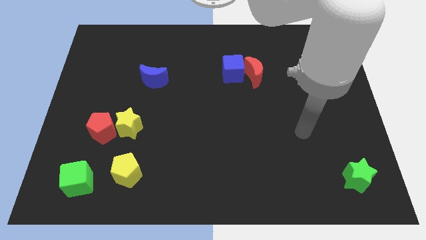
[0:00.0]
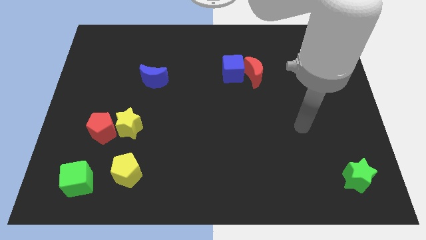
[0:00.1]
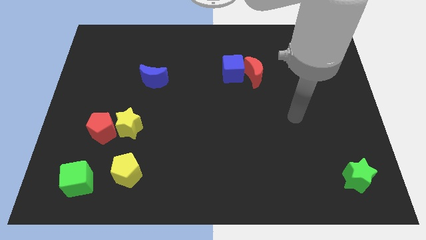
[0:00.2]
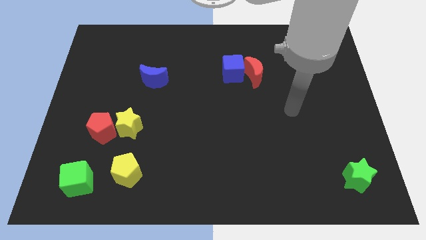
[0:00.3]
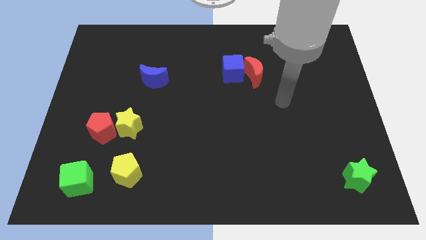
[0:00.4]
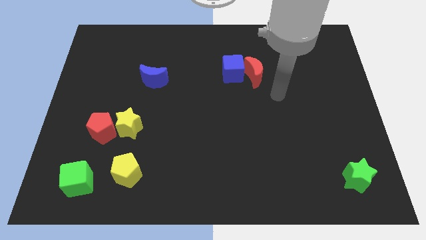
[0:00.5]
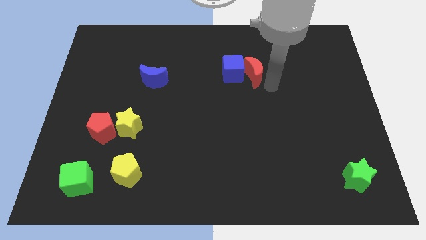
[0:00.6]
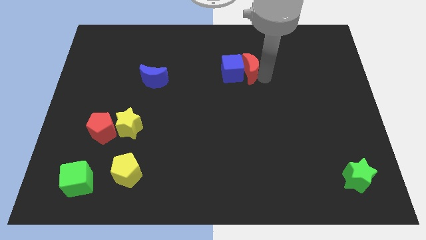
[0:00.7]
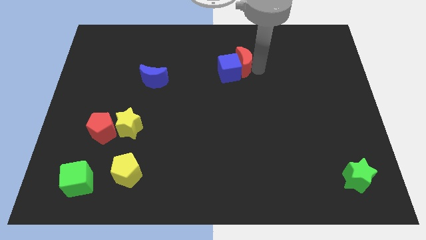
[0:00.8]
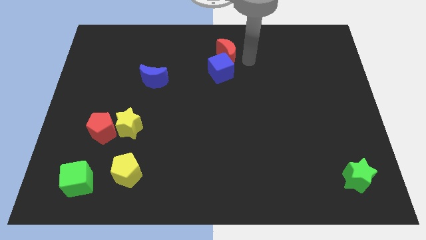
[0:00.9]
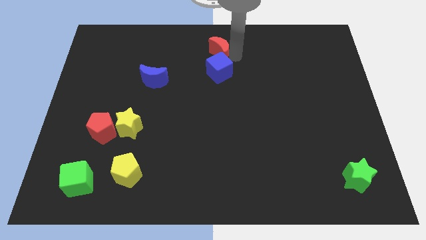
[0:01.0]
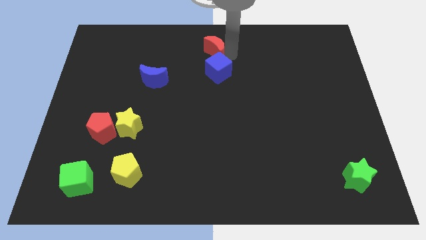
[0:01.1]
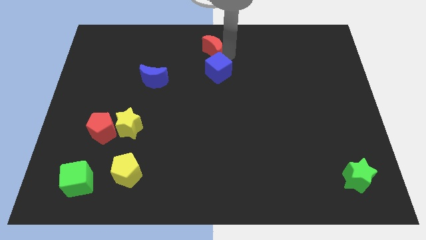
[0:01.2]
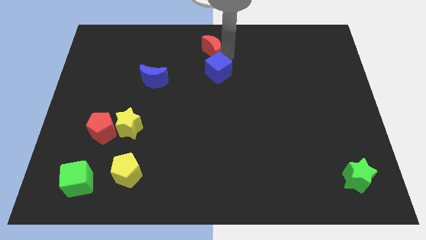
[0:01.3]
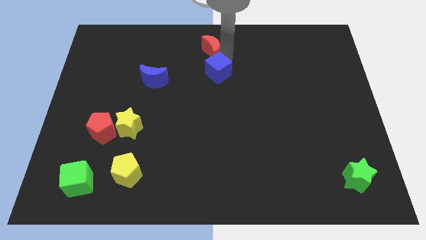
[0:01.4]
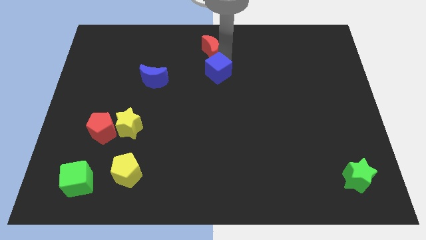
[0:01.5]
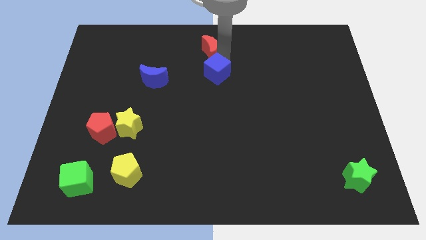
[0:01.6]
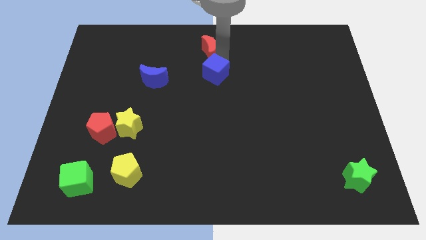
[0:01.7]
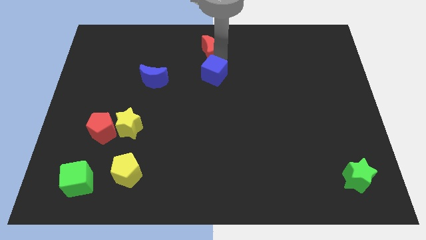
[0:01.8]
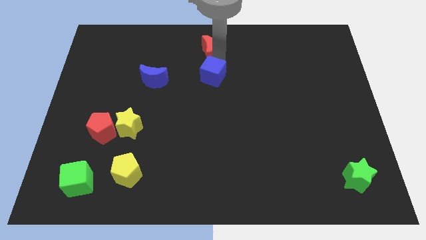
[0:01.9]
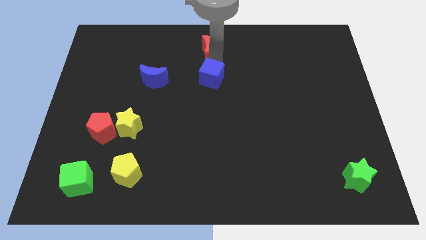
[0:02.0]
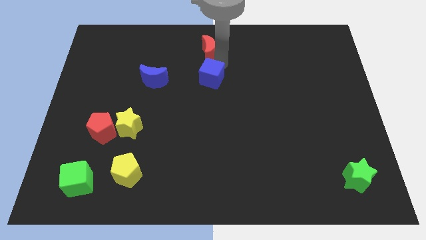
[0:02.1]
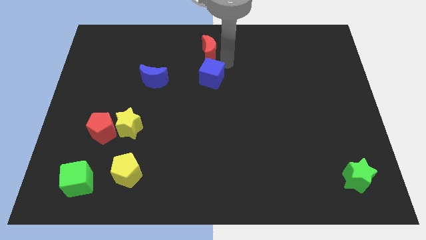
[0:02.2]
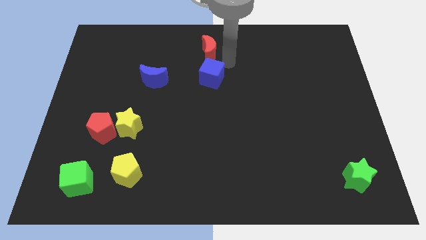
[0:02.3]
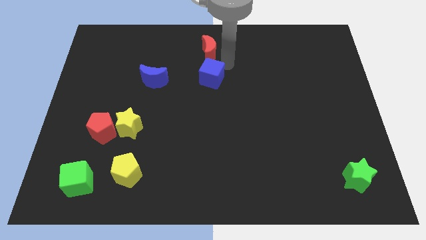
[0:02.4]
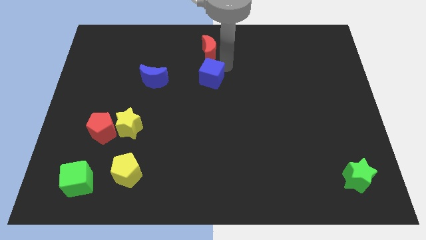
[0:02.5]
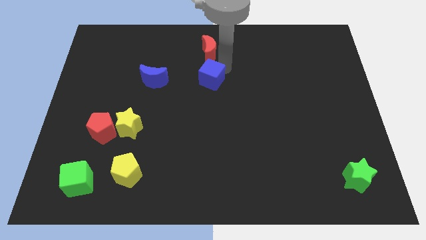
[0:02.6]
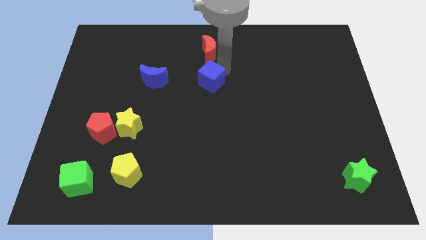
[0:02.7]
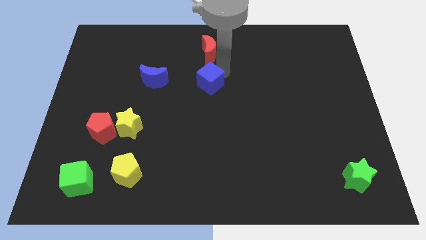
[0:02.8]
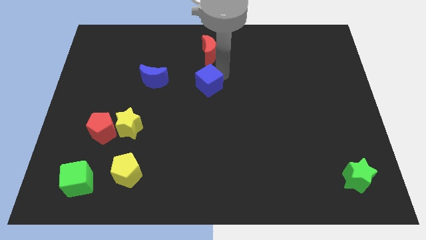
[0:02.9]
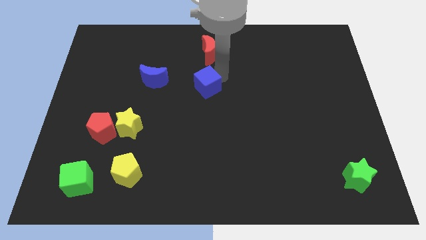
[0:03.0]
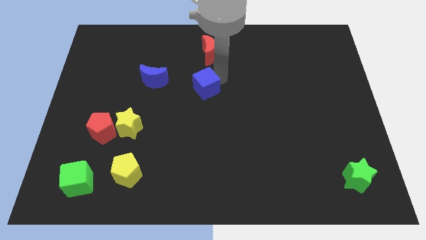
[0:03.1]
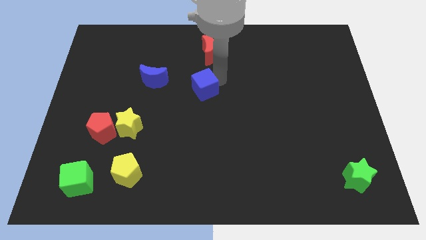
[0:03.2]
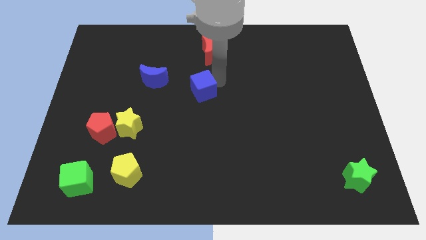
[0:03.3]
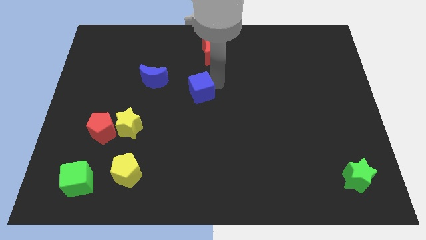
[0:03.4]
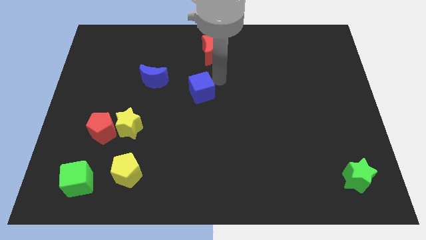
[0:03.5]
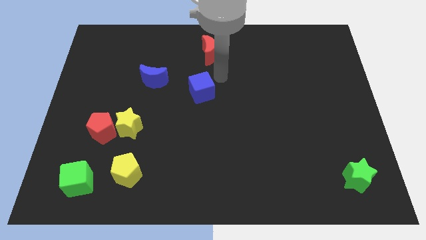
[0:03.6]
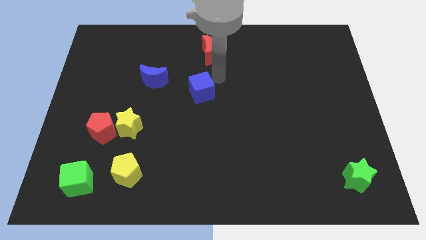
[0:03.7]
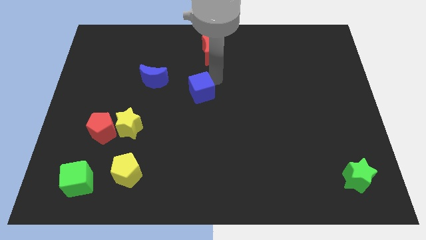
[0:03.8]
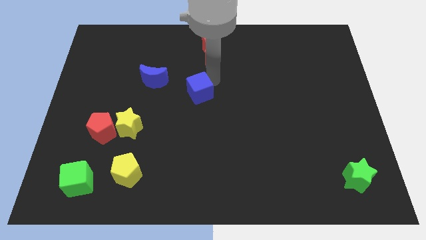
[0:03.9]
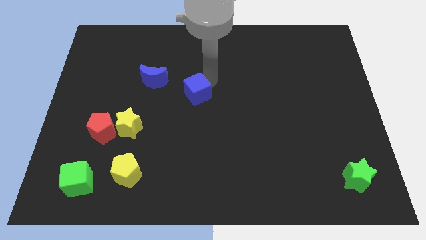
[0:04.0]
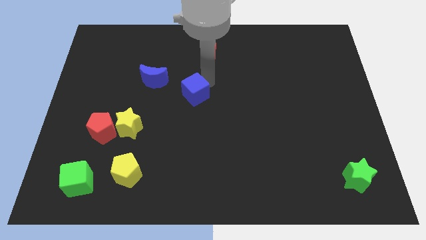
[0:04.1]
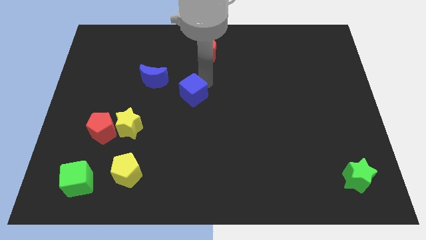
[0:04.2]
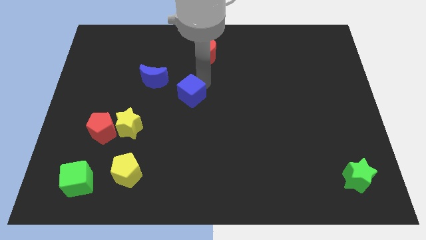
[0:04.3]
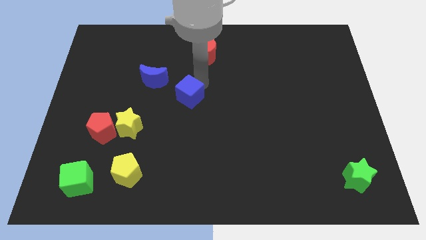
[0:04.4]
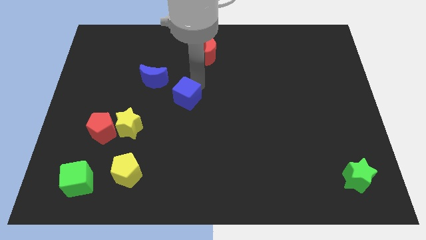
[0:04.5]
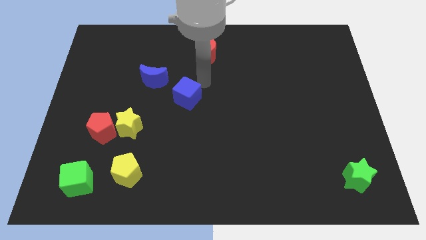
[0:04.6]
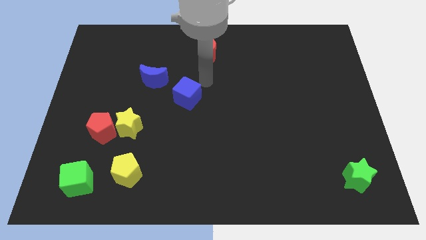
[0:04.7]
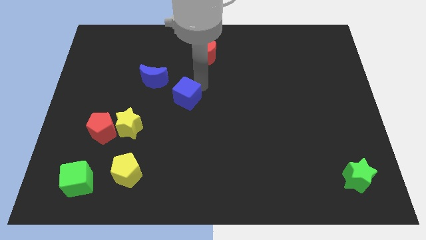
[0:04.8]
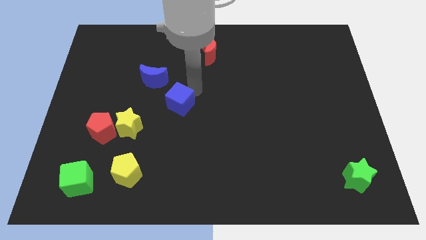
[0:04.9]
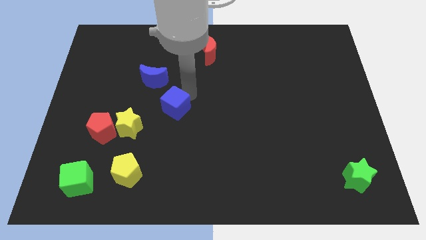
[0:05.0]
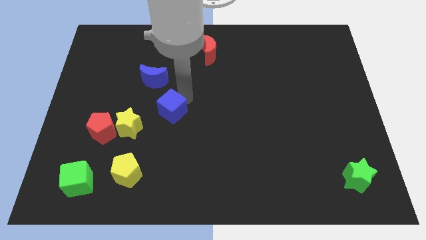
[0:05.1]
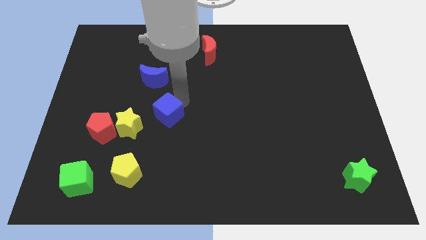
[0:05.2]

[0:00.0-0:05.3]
slide the blue cube downwards and left diagonally

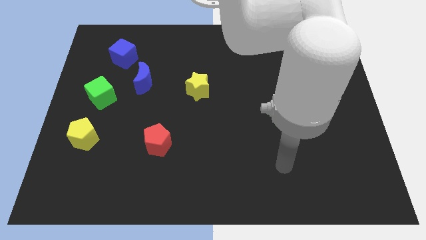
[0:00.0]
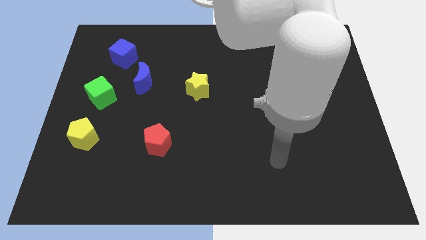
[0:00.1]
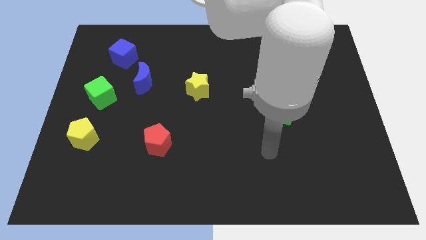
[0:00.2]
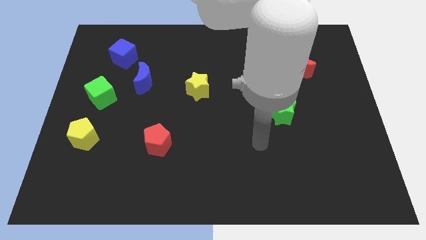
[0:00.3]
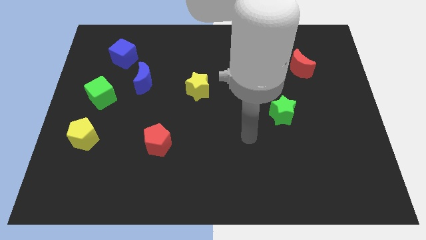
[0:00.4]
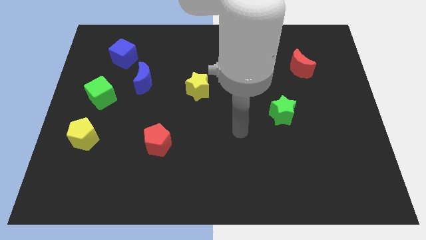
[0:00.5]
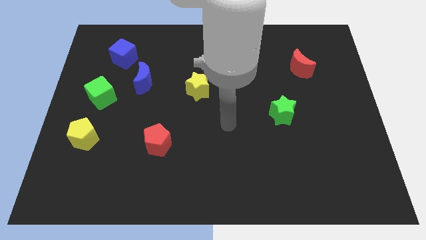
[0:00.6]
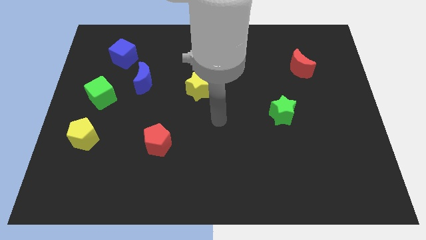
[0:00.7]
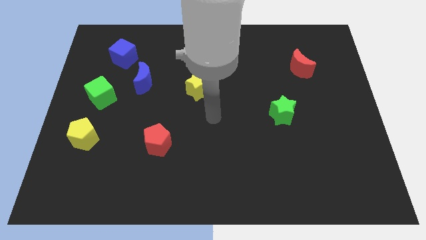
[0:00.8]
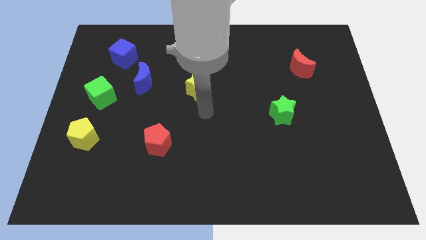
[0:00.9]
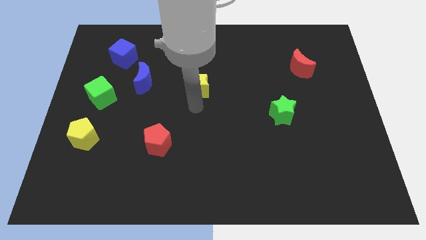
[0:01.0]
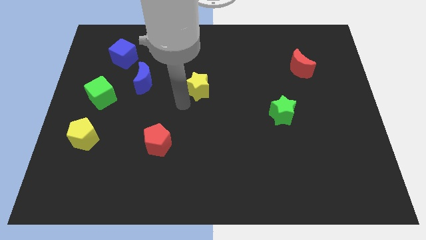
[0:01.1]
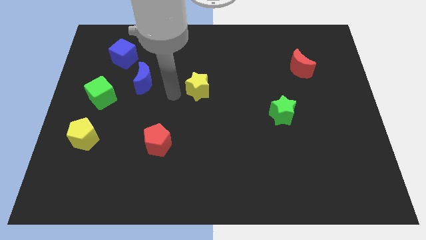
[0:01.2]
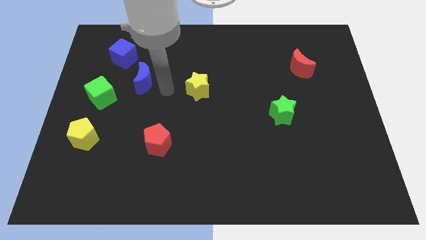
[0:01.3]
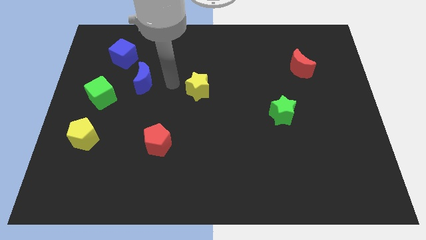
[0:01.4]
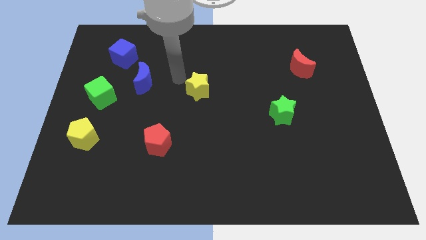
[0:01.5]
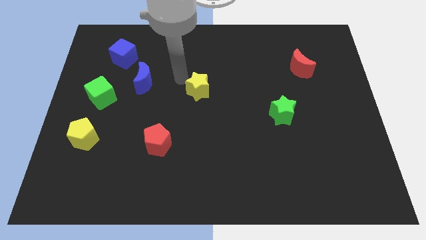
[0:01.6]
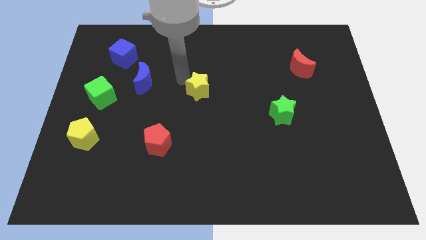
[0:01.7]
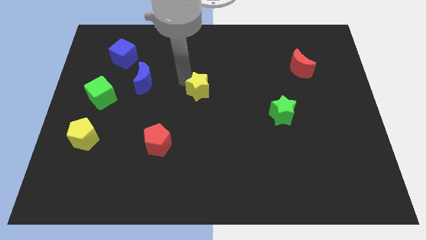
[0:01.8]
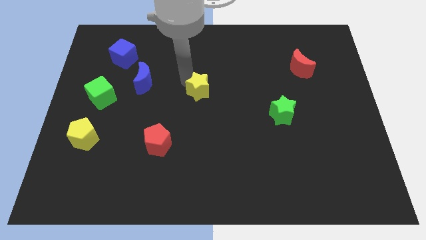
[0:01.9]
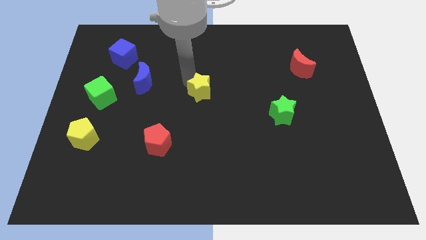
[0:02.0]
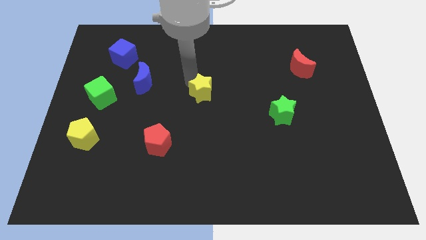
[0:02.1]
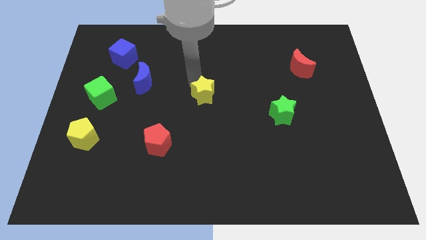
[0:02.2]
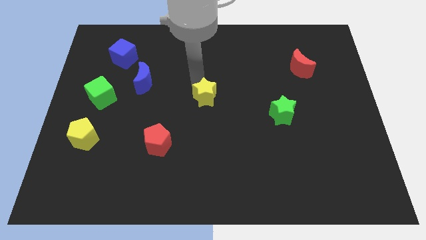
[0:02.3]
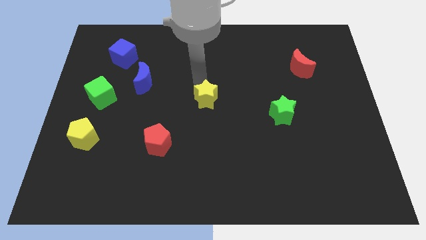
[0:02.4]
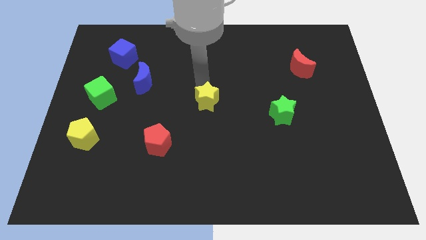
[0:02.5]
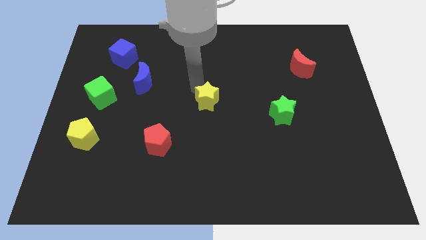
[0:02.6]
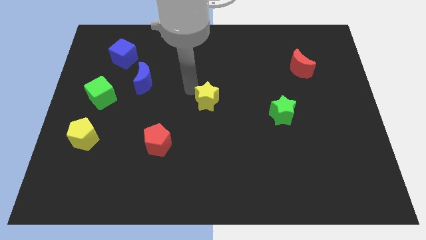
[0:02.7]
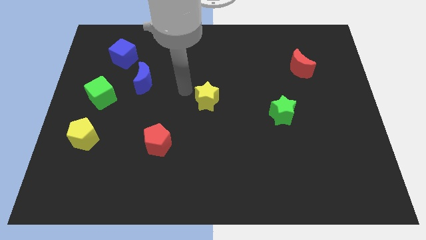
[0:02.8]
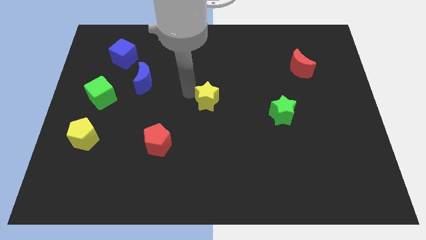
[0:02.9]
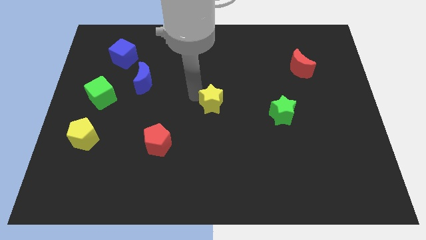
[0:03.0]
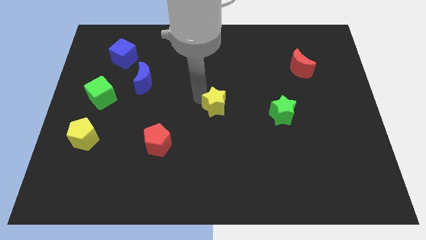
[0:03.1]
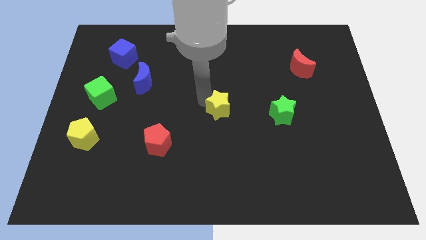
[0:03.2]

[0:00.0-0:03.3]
slightly push the yellow star downwards and then to the right
